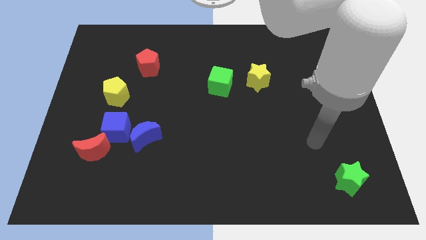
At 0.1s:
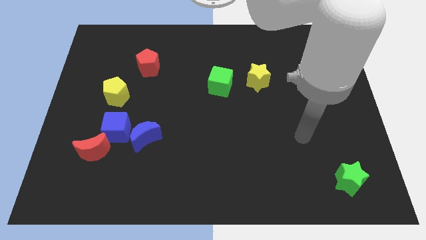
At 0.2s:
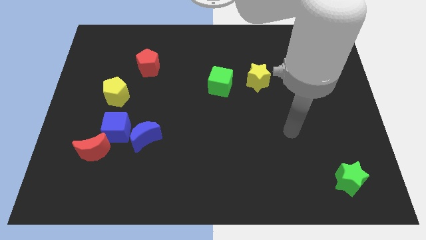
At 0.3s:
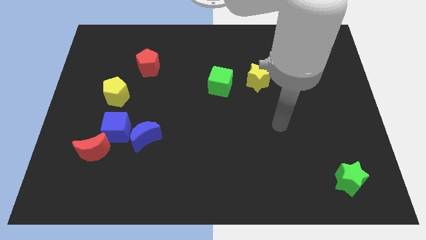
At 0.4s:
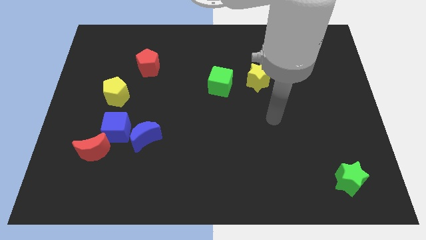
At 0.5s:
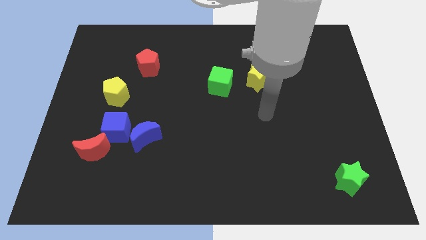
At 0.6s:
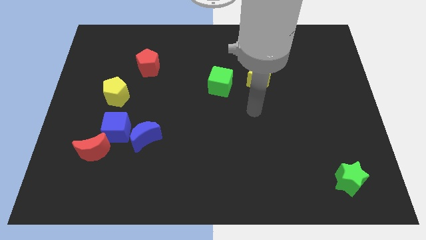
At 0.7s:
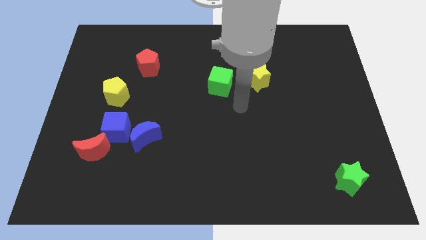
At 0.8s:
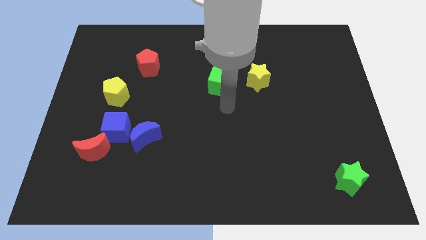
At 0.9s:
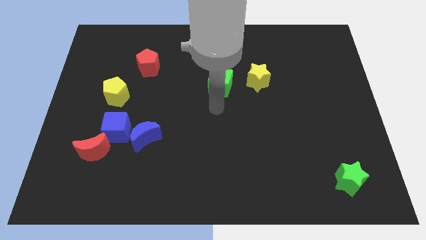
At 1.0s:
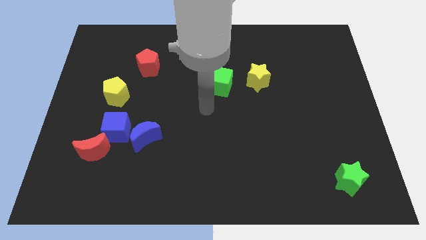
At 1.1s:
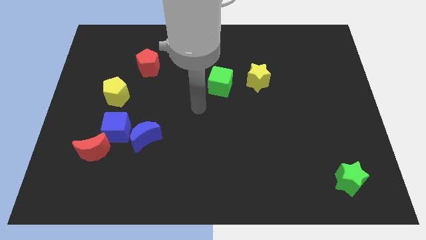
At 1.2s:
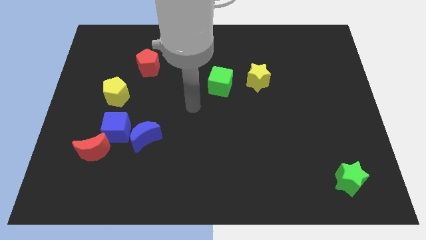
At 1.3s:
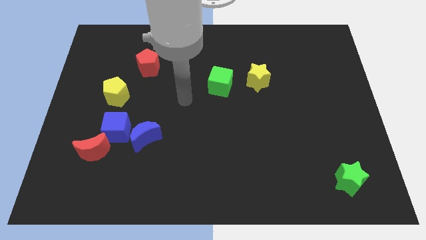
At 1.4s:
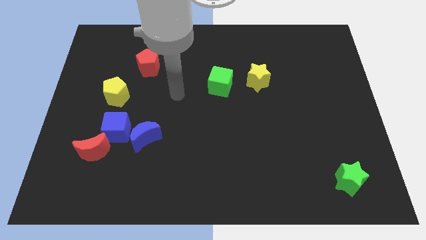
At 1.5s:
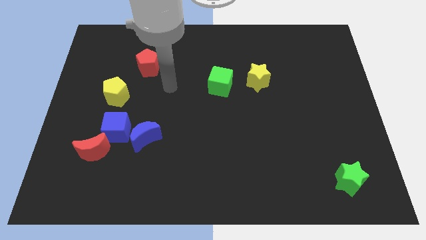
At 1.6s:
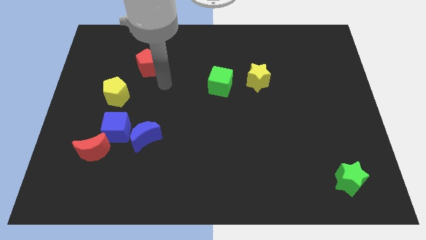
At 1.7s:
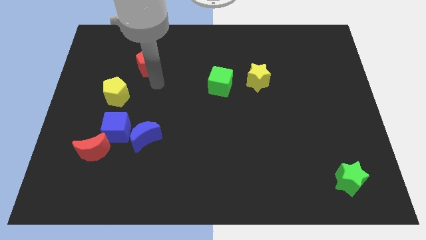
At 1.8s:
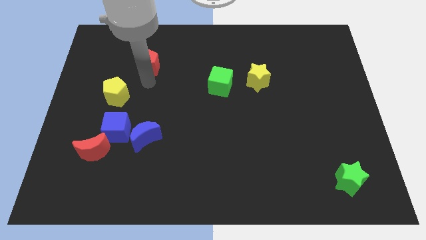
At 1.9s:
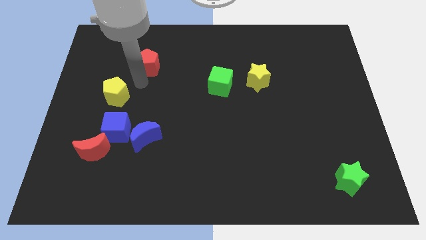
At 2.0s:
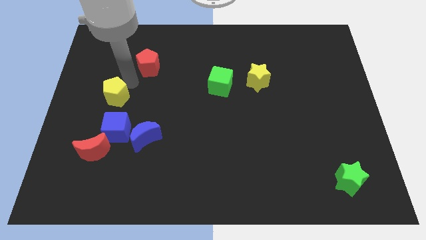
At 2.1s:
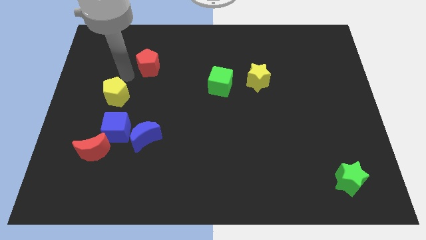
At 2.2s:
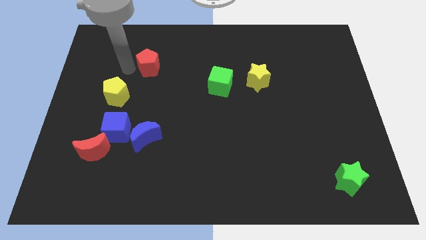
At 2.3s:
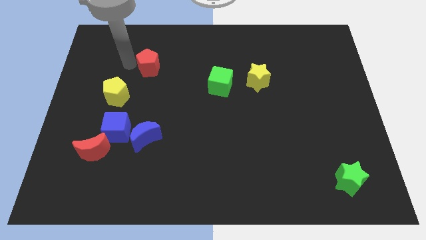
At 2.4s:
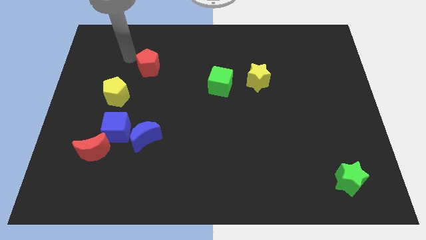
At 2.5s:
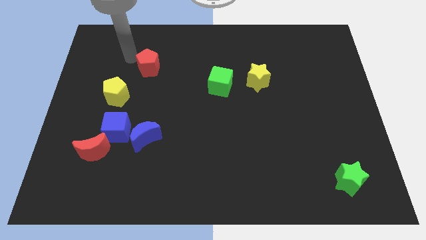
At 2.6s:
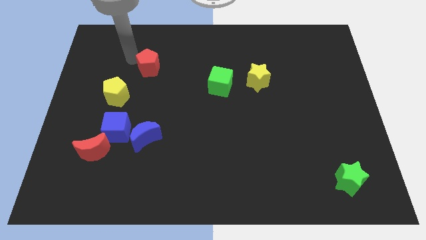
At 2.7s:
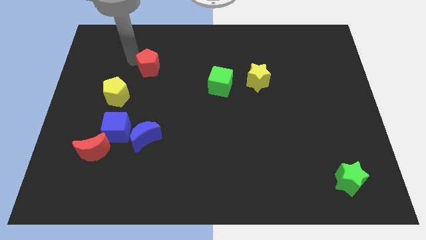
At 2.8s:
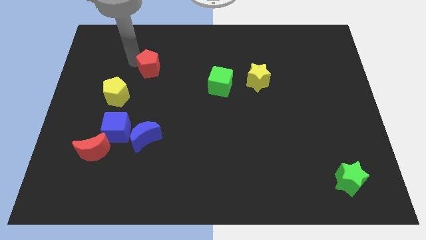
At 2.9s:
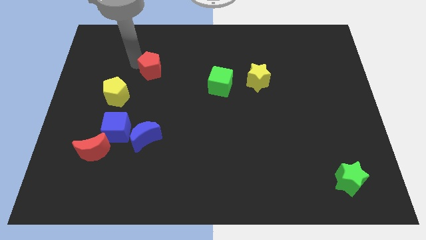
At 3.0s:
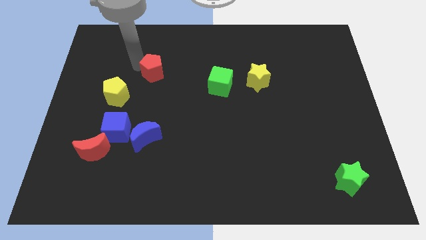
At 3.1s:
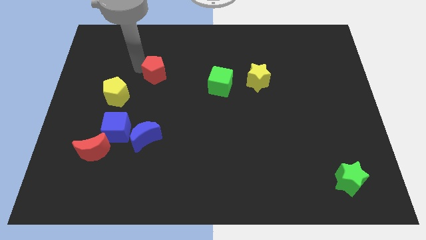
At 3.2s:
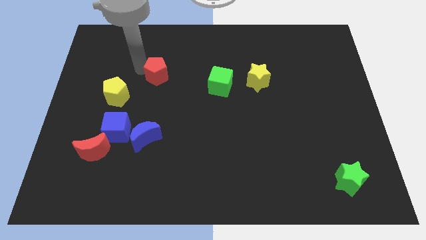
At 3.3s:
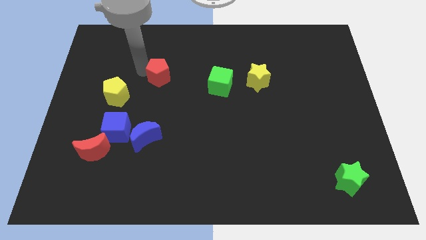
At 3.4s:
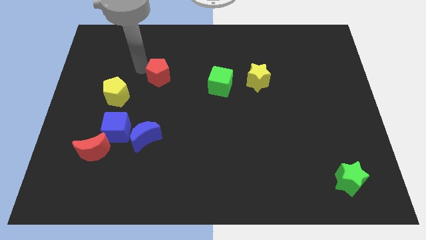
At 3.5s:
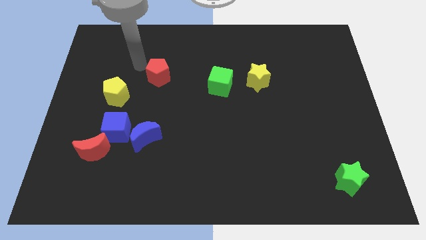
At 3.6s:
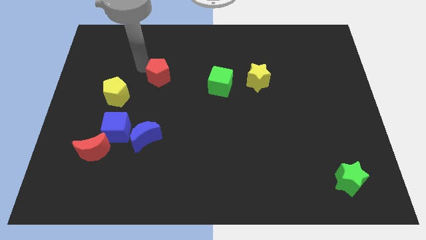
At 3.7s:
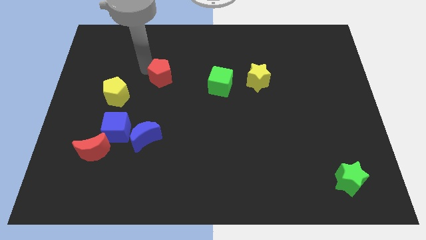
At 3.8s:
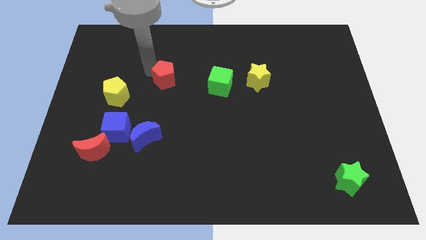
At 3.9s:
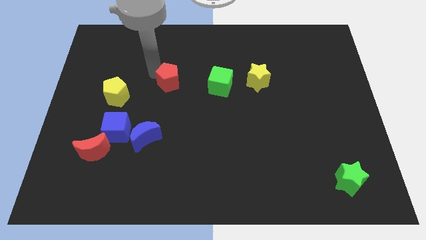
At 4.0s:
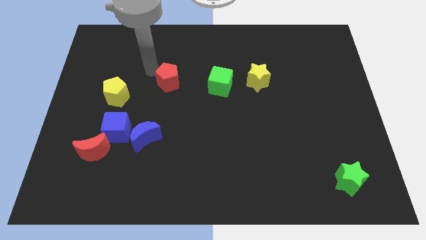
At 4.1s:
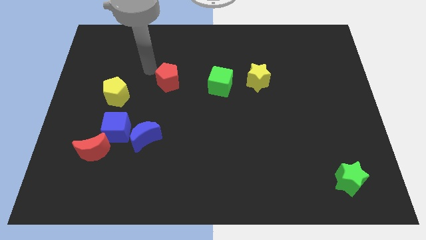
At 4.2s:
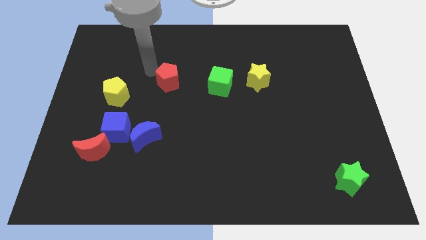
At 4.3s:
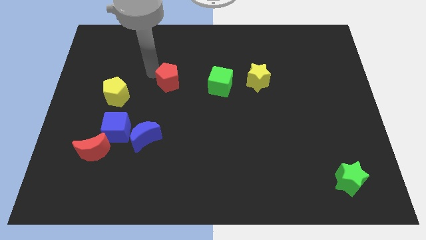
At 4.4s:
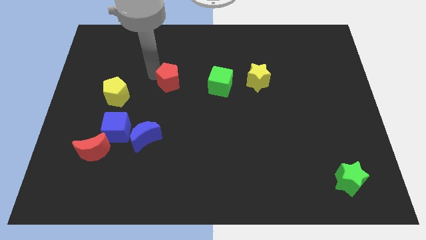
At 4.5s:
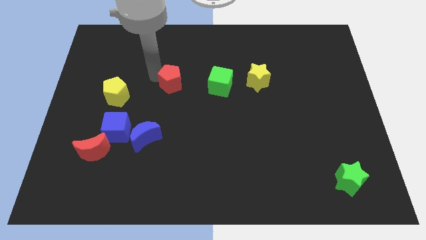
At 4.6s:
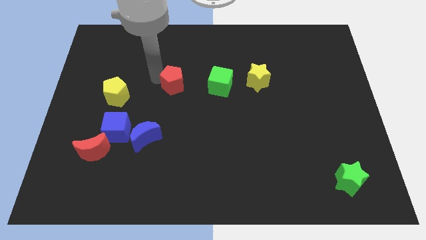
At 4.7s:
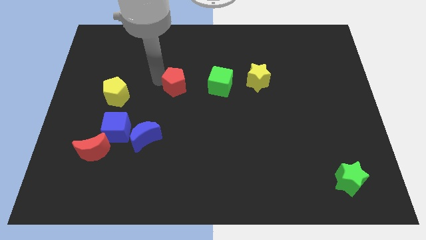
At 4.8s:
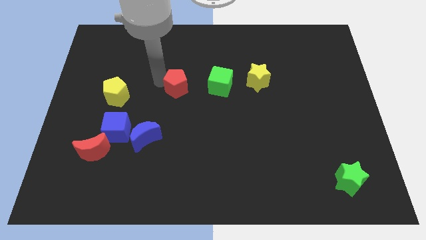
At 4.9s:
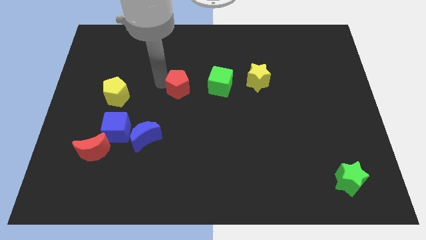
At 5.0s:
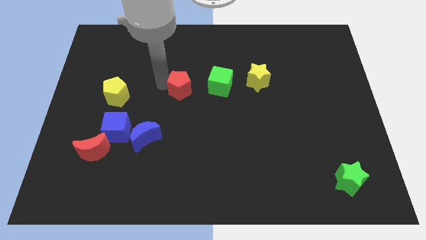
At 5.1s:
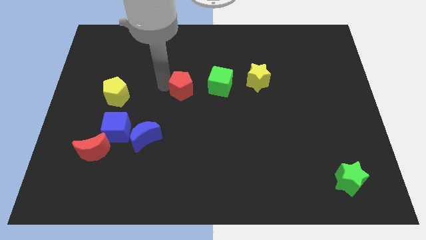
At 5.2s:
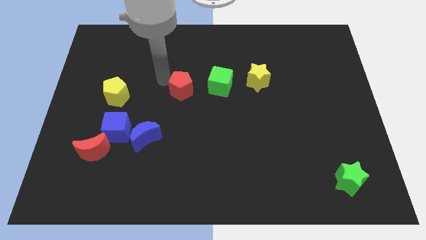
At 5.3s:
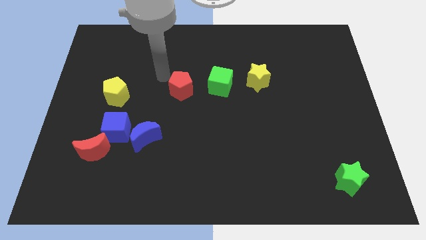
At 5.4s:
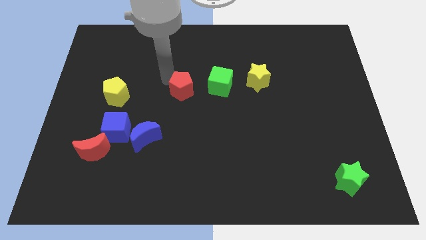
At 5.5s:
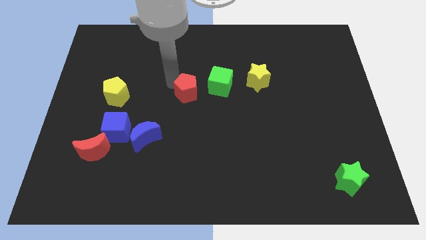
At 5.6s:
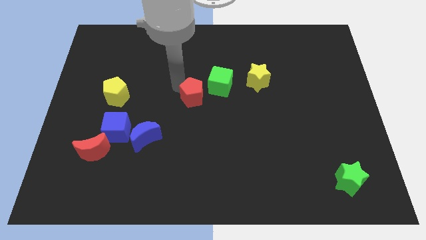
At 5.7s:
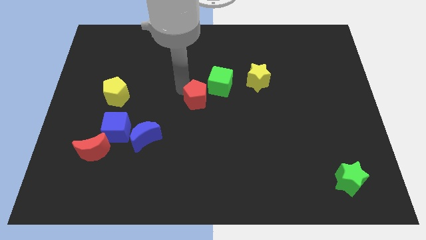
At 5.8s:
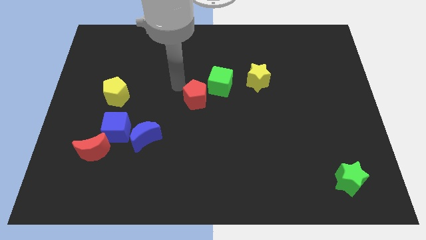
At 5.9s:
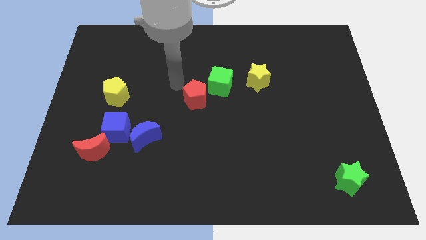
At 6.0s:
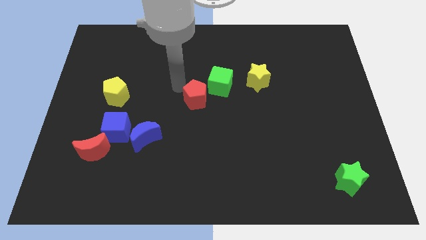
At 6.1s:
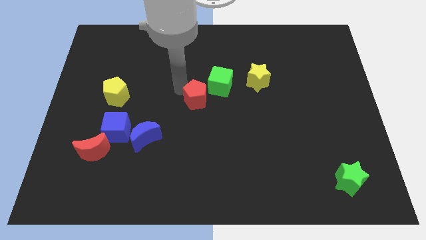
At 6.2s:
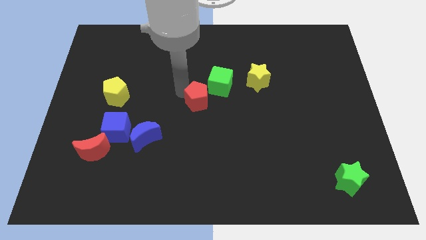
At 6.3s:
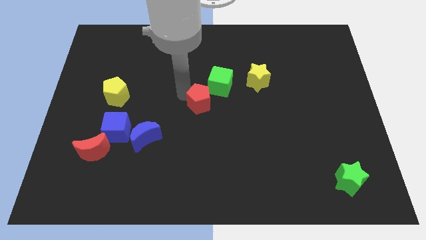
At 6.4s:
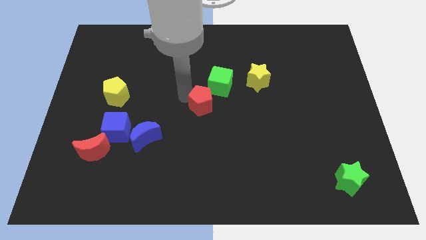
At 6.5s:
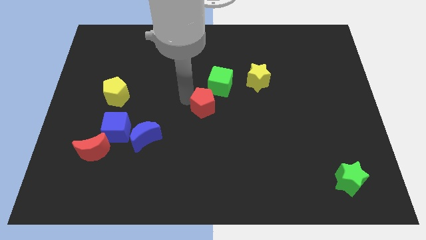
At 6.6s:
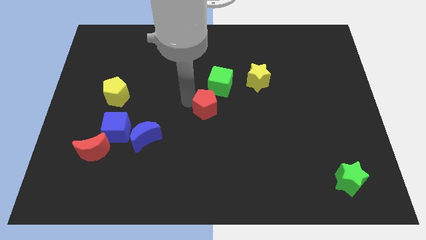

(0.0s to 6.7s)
move the red pentagon down and then right

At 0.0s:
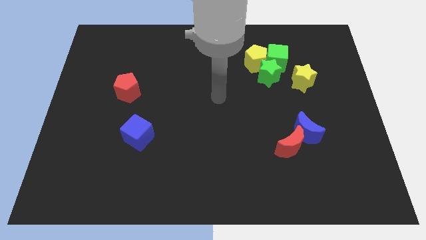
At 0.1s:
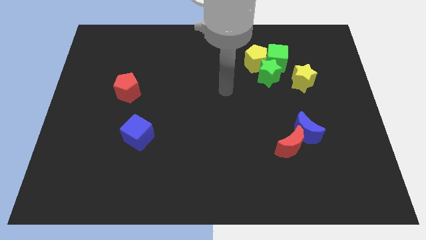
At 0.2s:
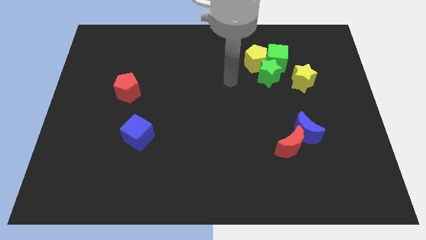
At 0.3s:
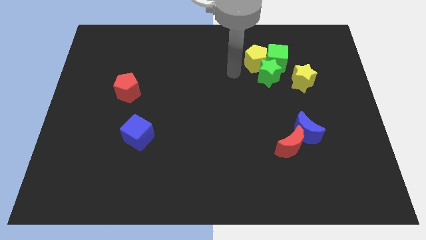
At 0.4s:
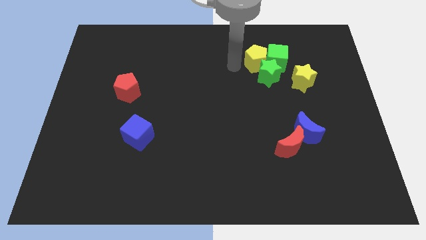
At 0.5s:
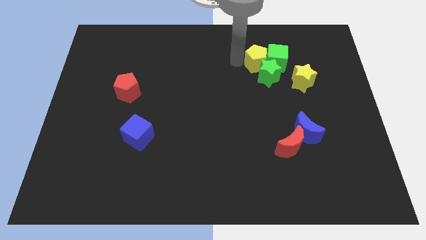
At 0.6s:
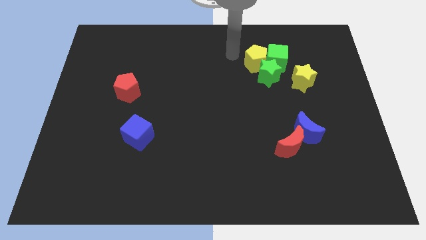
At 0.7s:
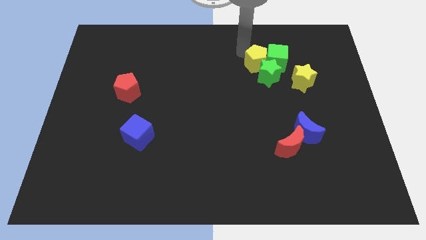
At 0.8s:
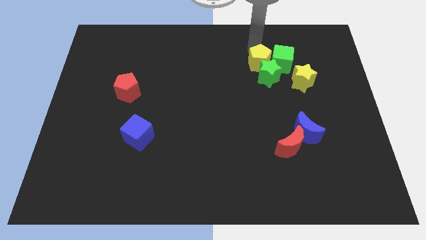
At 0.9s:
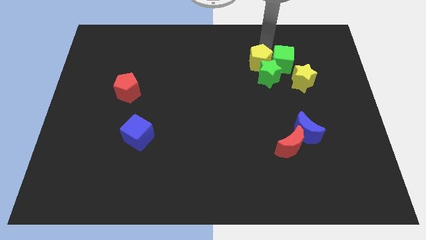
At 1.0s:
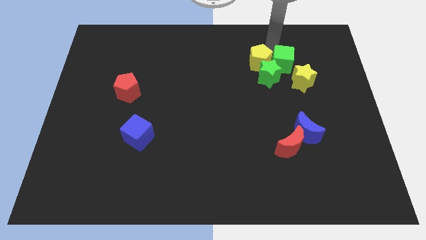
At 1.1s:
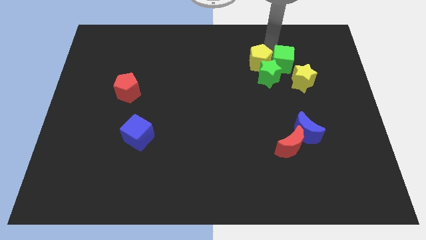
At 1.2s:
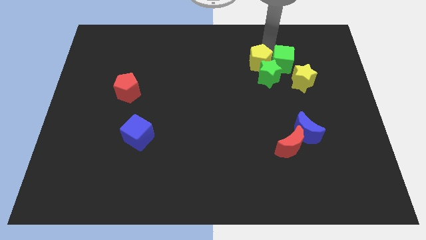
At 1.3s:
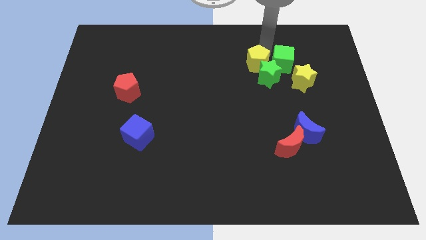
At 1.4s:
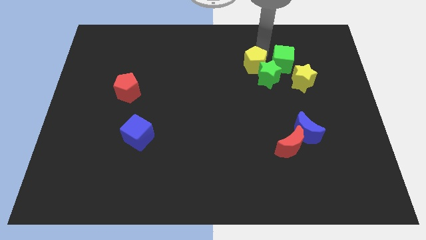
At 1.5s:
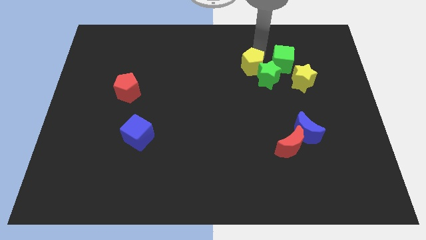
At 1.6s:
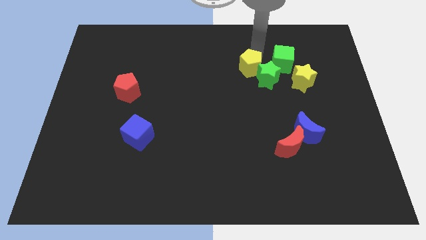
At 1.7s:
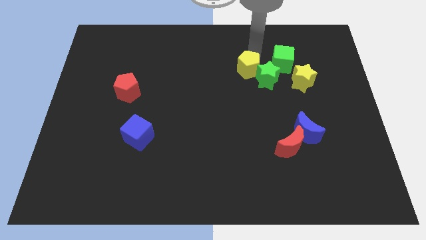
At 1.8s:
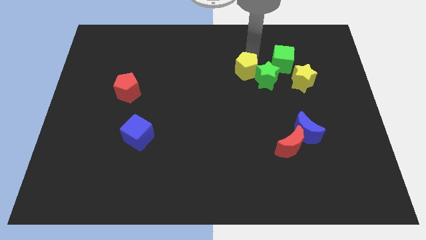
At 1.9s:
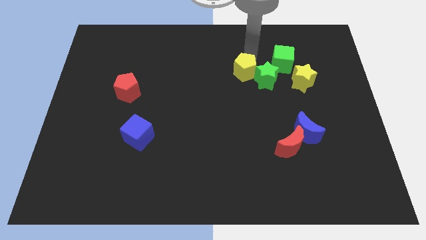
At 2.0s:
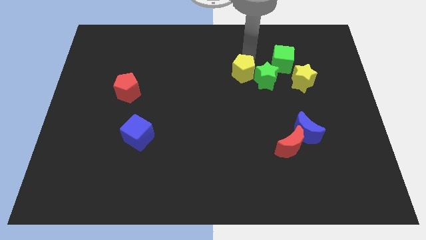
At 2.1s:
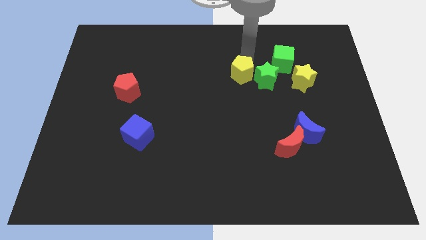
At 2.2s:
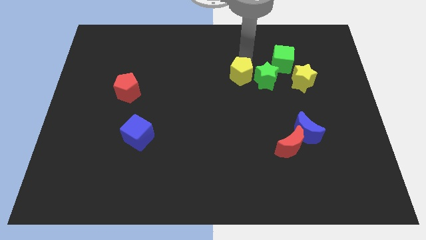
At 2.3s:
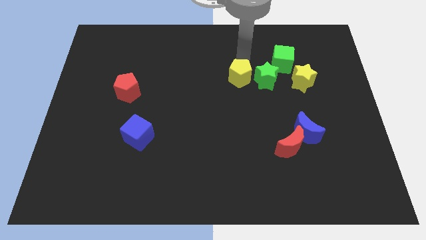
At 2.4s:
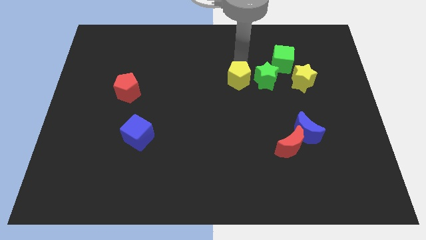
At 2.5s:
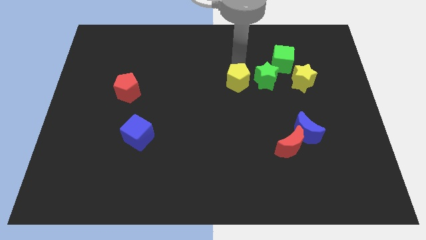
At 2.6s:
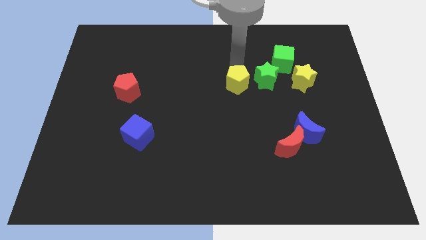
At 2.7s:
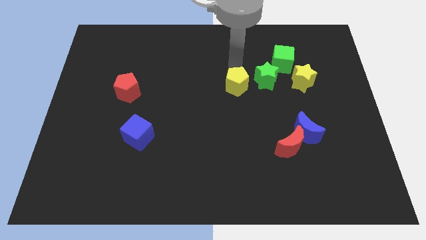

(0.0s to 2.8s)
slide the yellow pentagon downwards a little
